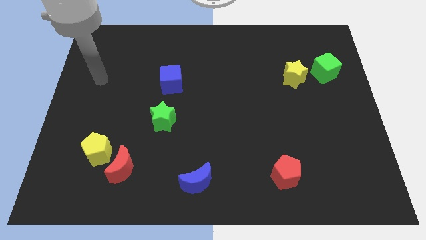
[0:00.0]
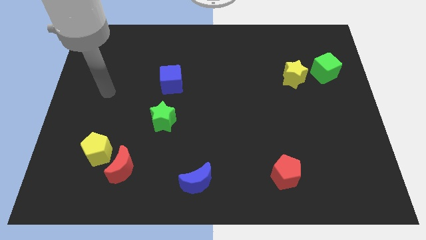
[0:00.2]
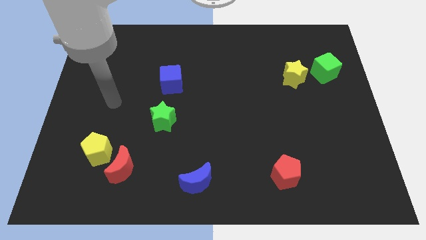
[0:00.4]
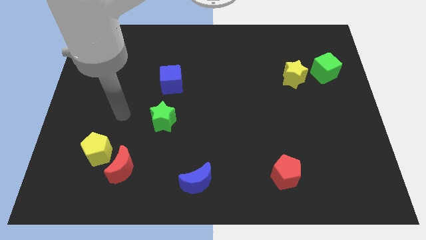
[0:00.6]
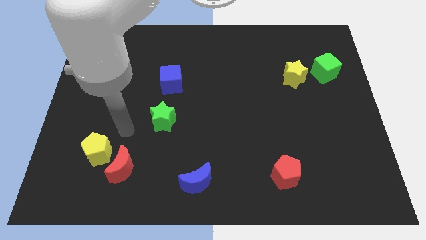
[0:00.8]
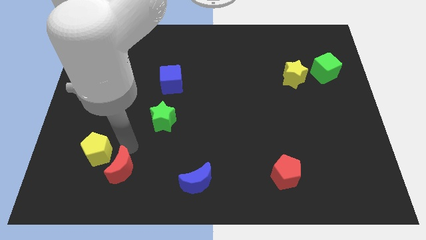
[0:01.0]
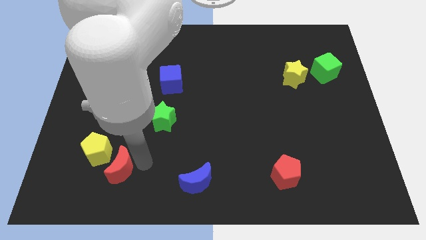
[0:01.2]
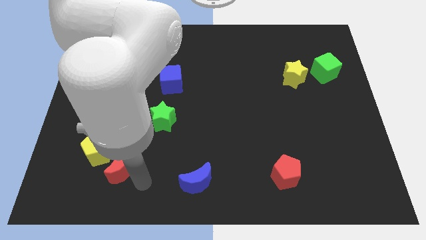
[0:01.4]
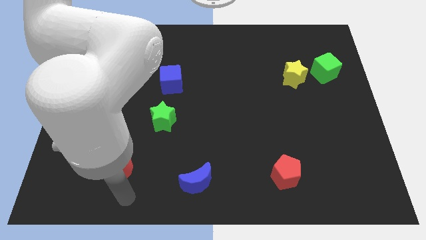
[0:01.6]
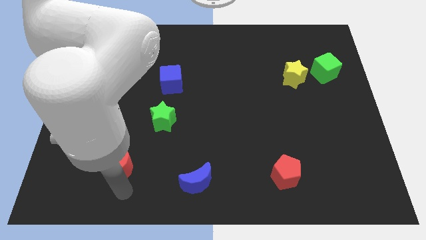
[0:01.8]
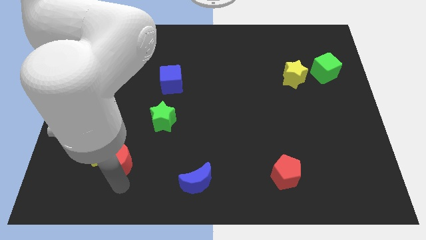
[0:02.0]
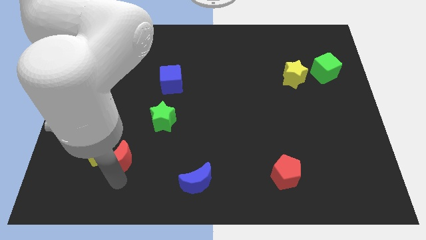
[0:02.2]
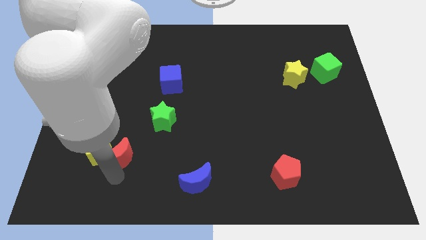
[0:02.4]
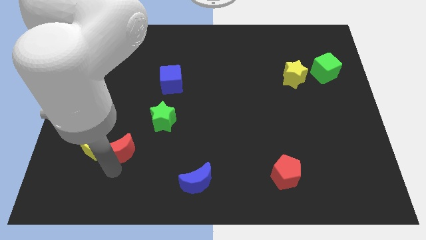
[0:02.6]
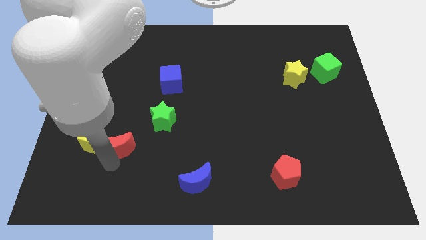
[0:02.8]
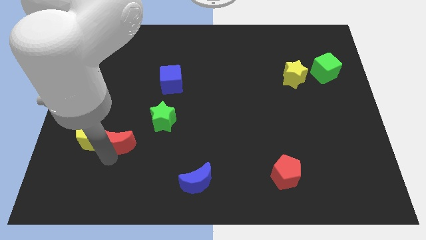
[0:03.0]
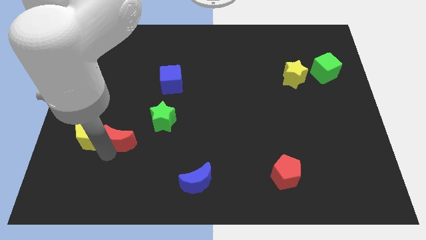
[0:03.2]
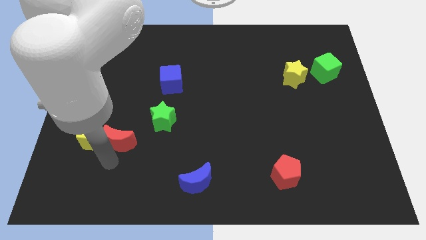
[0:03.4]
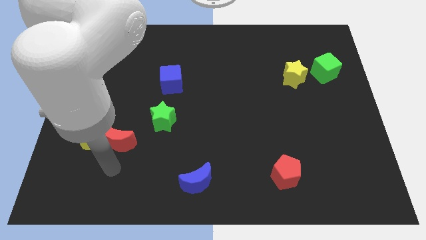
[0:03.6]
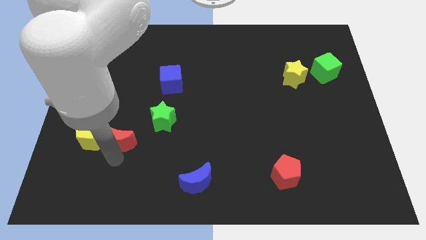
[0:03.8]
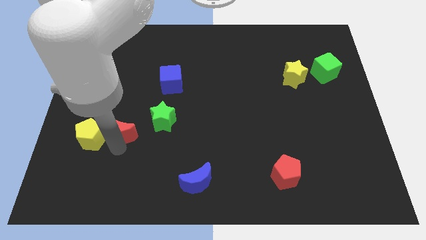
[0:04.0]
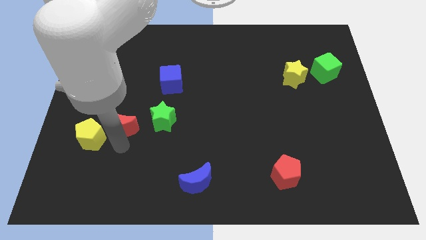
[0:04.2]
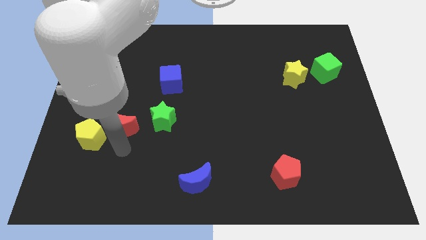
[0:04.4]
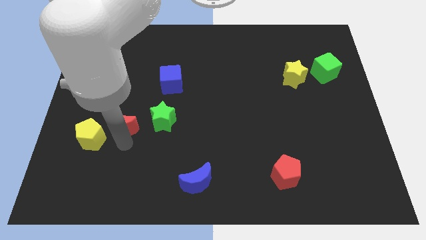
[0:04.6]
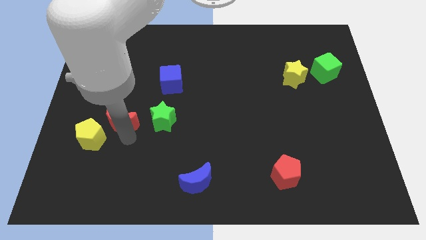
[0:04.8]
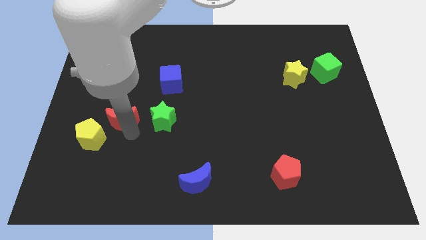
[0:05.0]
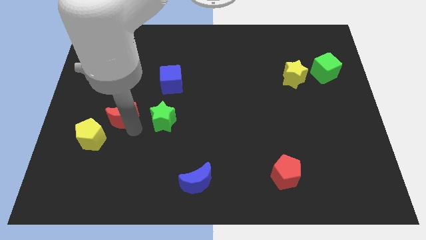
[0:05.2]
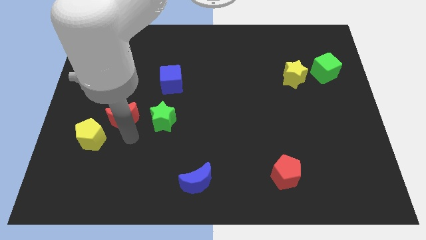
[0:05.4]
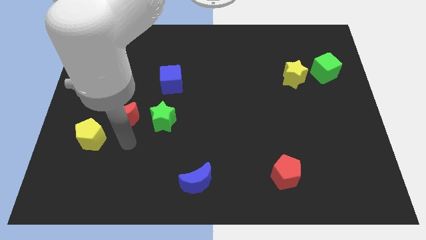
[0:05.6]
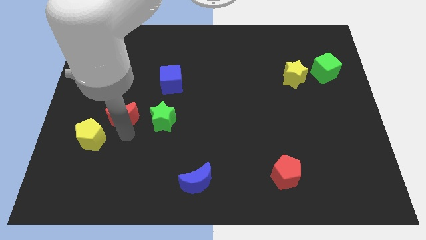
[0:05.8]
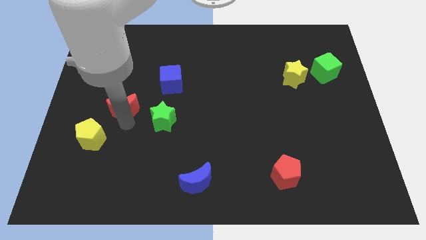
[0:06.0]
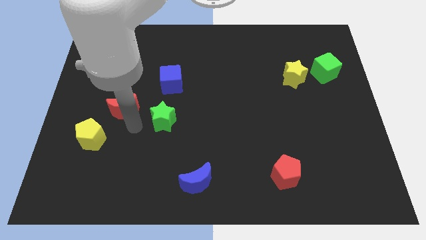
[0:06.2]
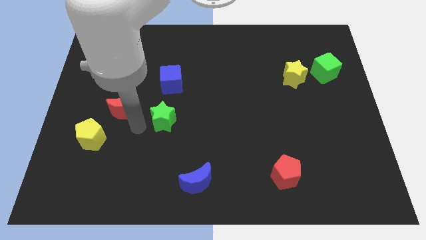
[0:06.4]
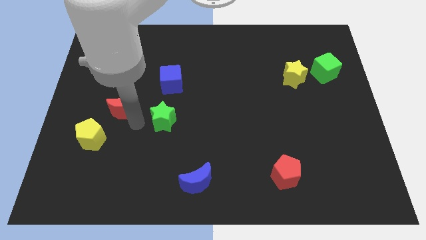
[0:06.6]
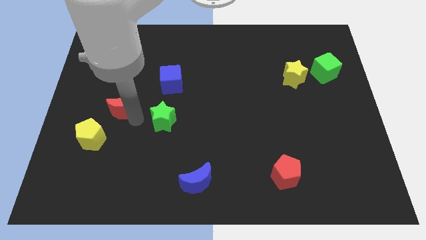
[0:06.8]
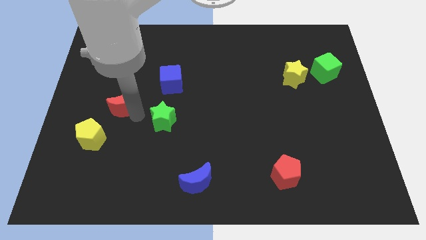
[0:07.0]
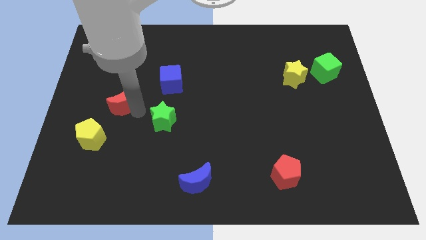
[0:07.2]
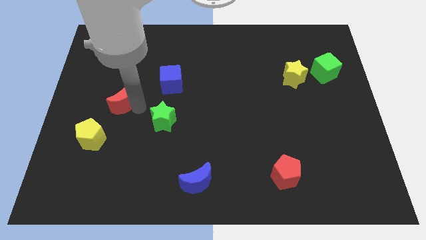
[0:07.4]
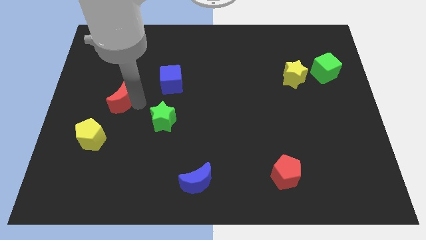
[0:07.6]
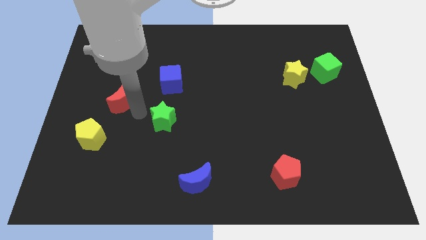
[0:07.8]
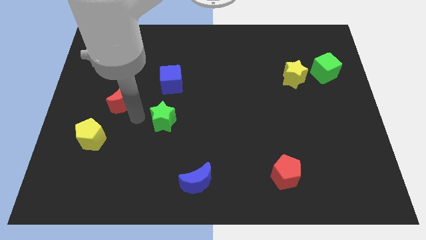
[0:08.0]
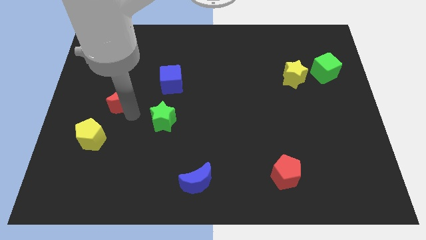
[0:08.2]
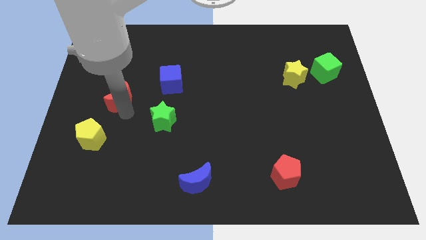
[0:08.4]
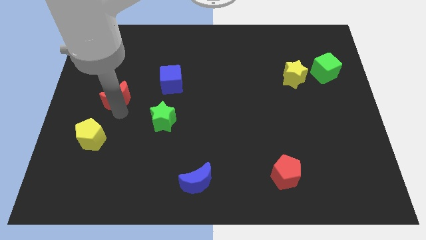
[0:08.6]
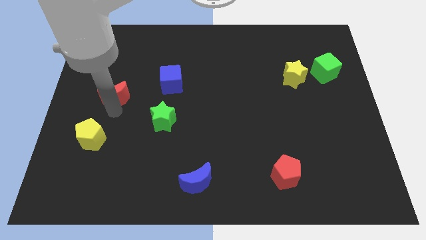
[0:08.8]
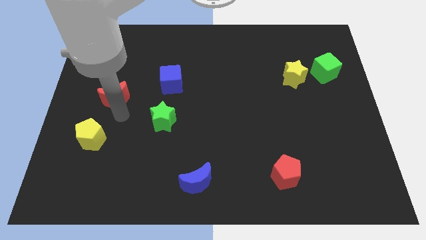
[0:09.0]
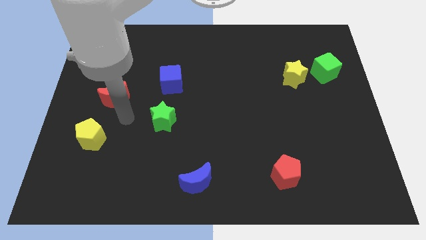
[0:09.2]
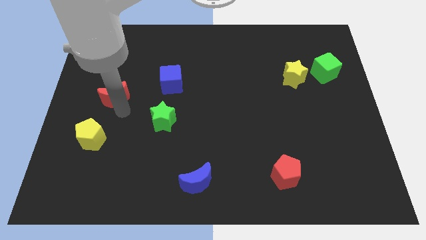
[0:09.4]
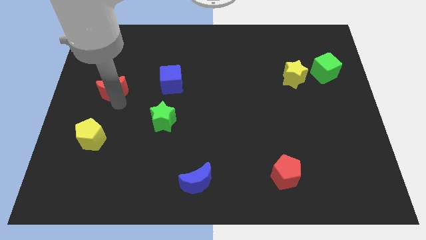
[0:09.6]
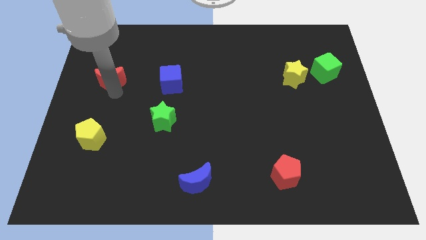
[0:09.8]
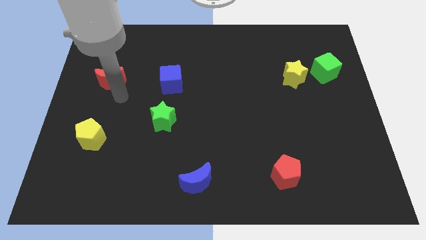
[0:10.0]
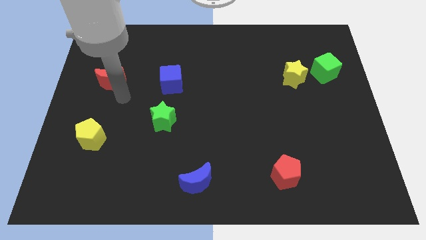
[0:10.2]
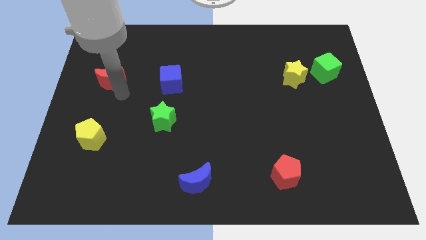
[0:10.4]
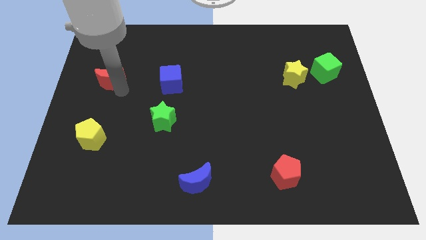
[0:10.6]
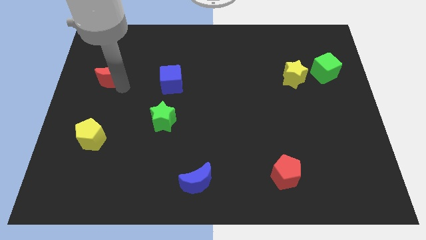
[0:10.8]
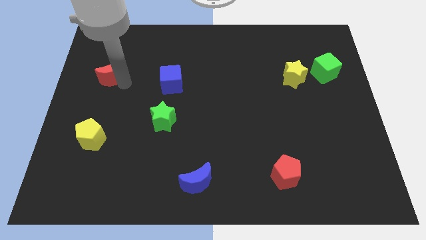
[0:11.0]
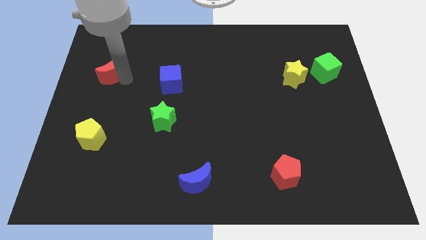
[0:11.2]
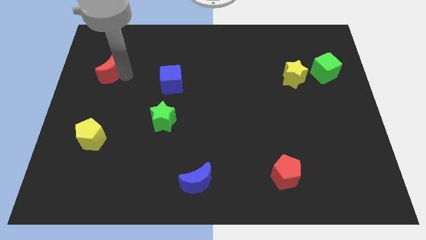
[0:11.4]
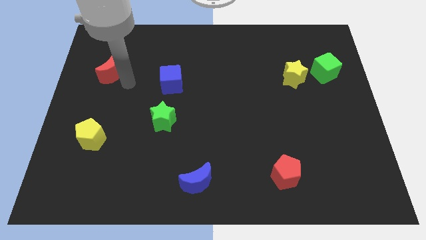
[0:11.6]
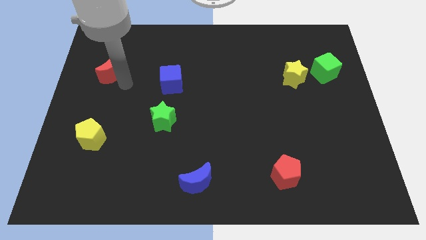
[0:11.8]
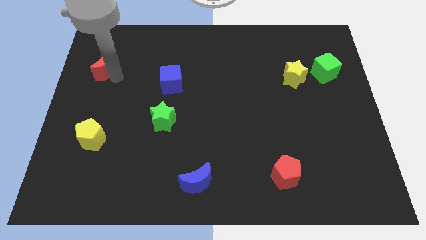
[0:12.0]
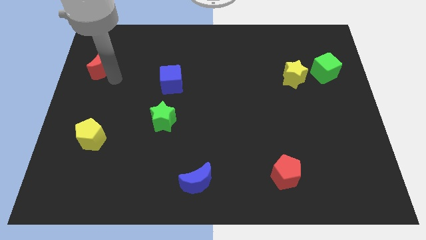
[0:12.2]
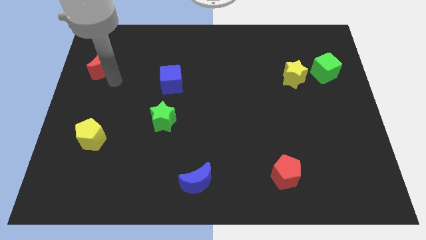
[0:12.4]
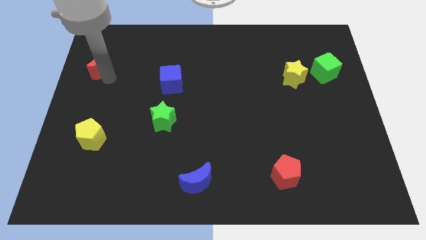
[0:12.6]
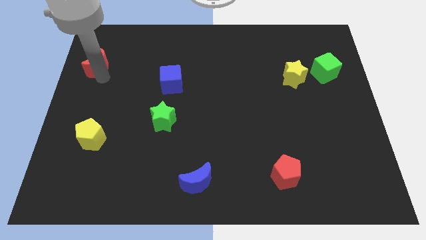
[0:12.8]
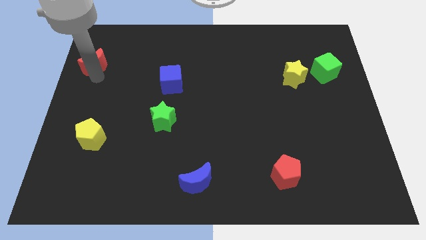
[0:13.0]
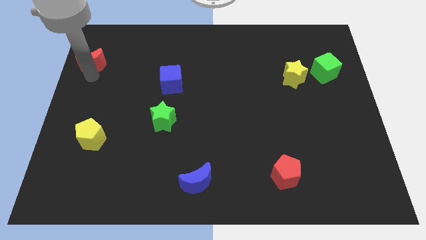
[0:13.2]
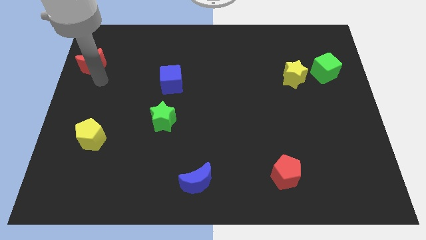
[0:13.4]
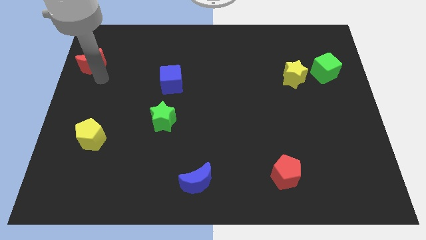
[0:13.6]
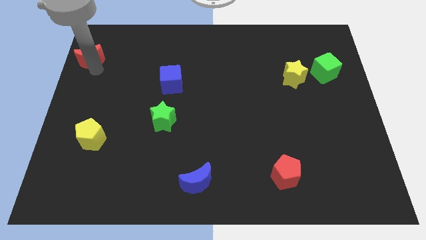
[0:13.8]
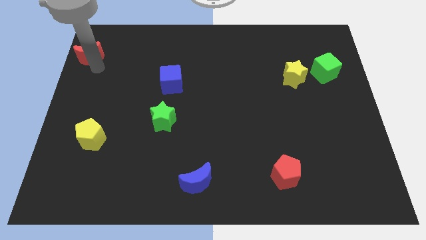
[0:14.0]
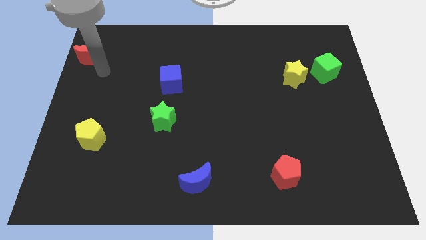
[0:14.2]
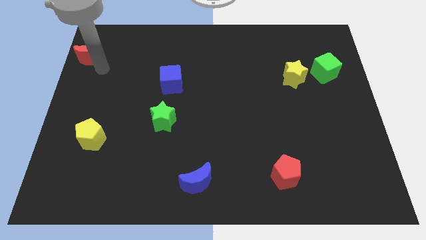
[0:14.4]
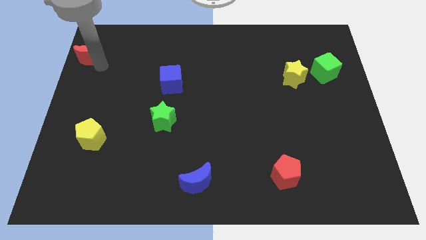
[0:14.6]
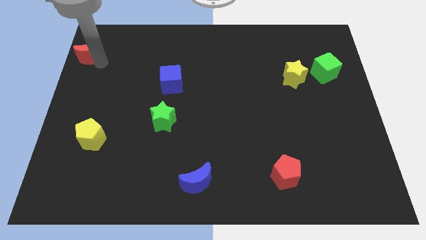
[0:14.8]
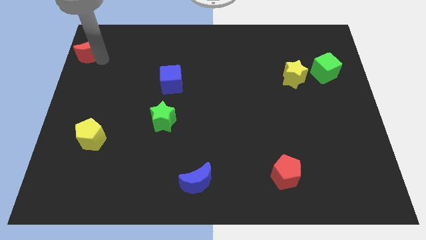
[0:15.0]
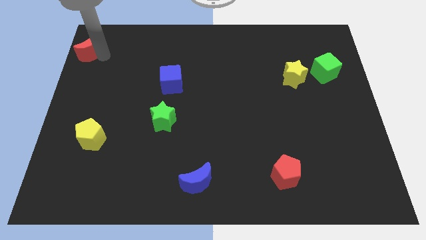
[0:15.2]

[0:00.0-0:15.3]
put the red moon to the top left of the board
